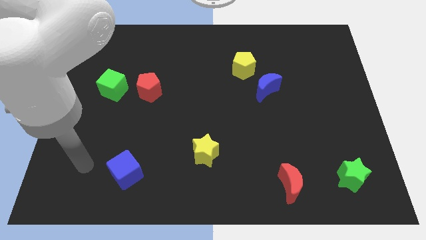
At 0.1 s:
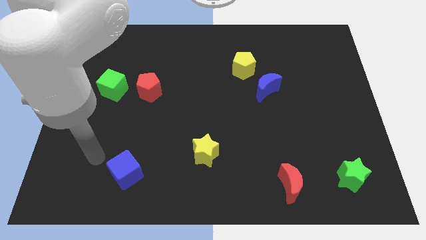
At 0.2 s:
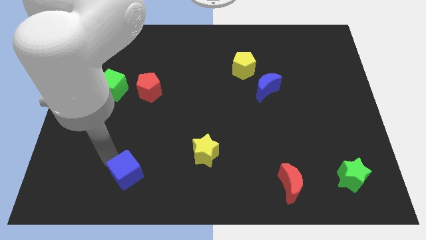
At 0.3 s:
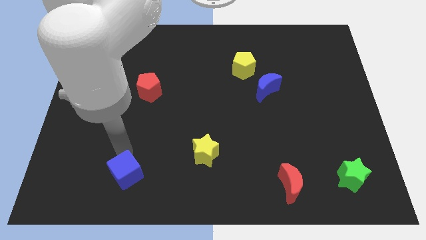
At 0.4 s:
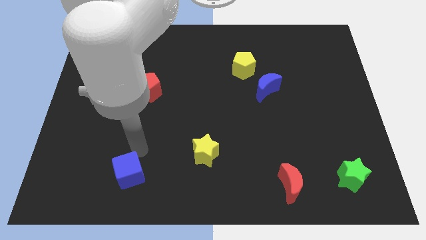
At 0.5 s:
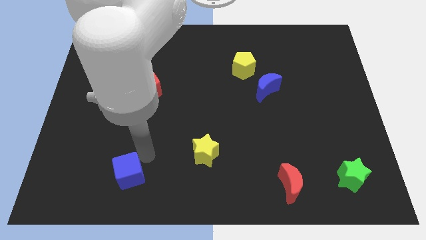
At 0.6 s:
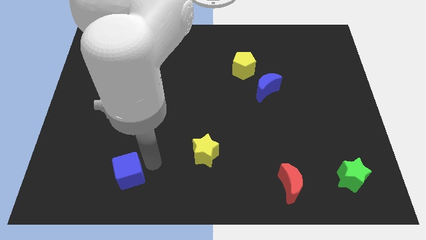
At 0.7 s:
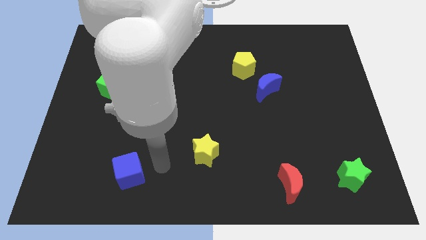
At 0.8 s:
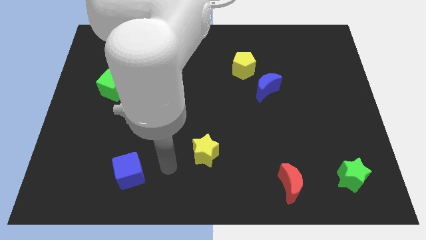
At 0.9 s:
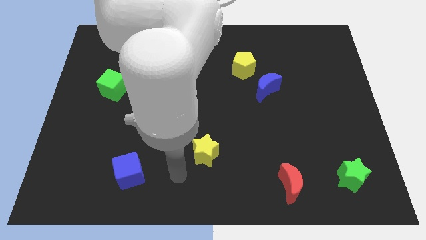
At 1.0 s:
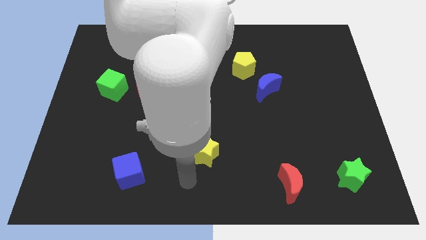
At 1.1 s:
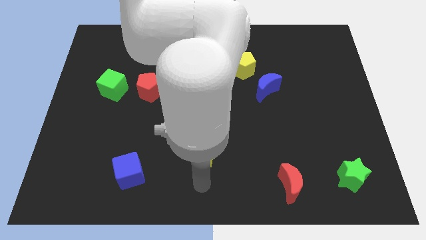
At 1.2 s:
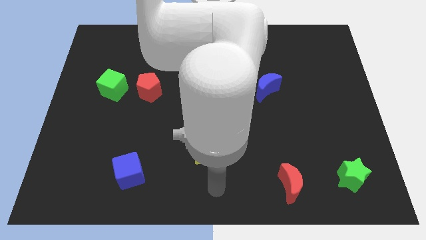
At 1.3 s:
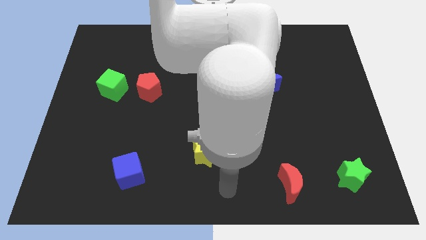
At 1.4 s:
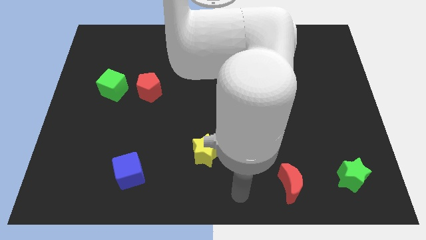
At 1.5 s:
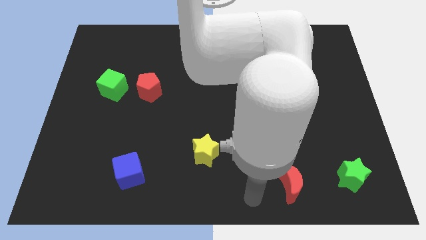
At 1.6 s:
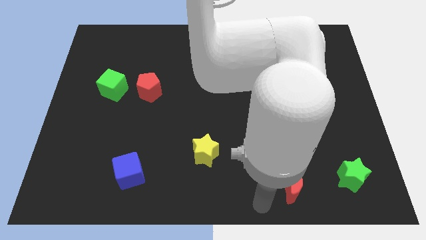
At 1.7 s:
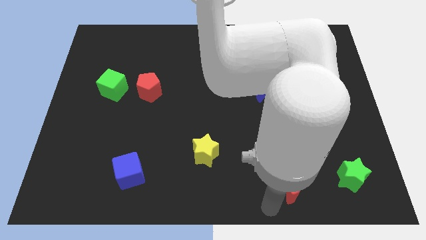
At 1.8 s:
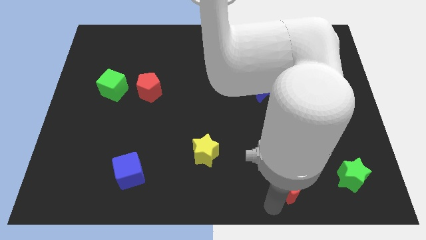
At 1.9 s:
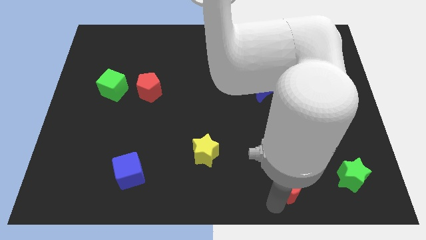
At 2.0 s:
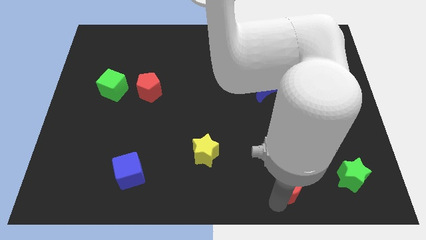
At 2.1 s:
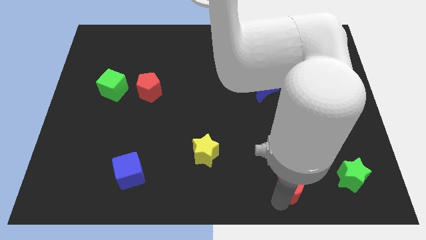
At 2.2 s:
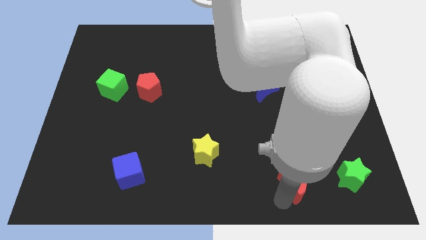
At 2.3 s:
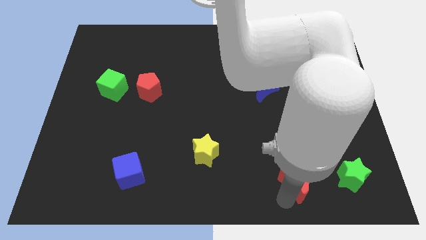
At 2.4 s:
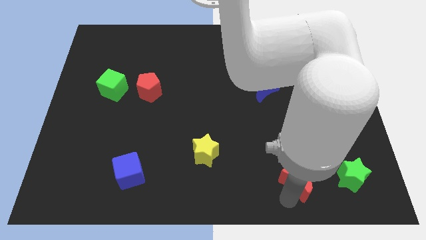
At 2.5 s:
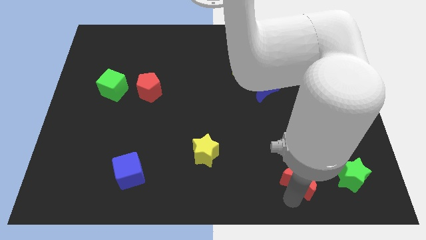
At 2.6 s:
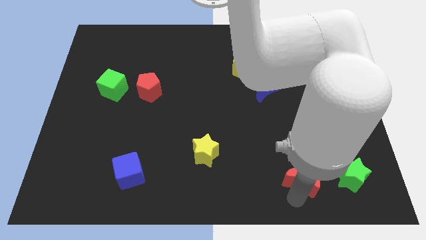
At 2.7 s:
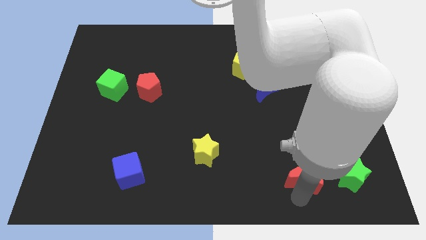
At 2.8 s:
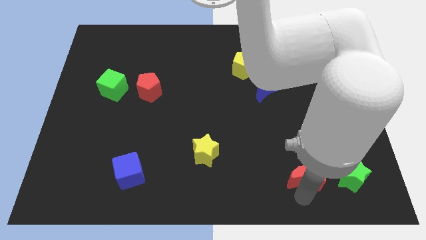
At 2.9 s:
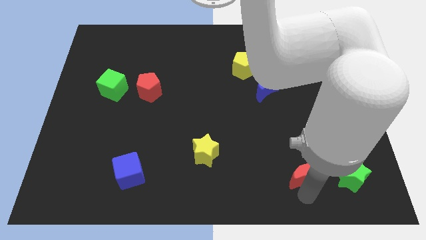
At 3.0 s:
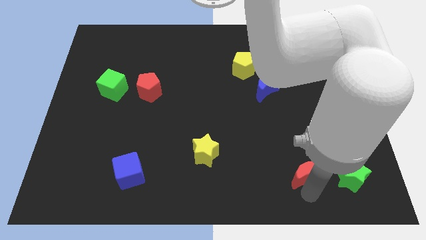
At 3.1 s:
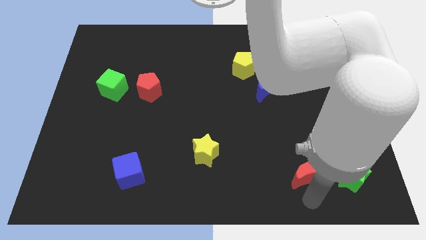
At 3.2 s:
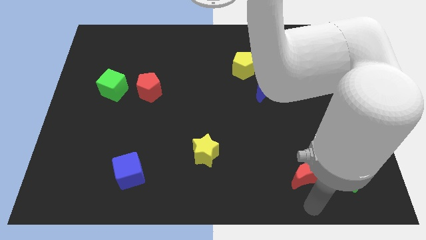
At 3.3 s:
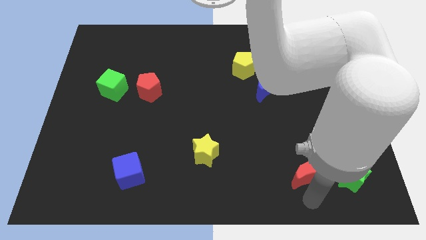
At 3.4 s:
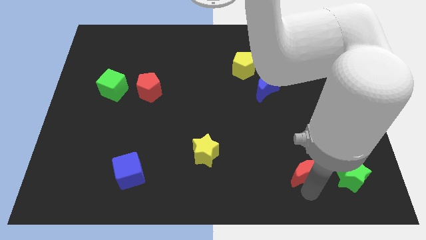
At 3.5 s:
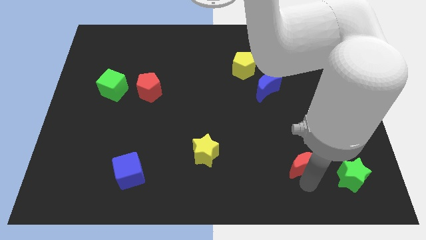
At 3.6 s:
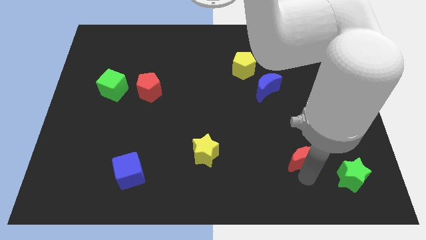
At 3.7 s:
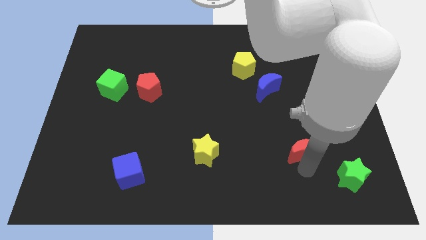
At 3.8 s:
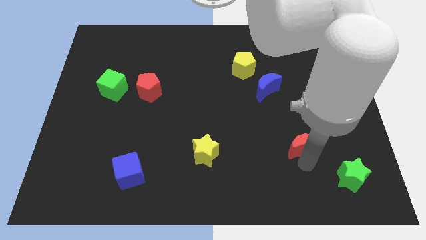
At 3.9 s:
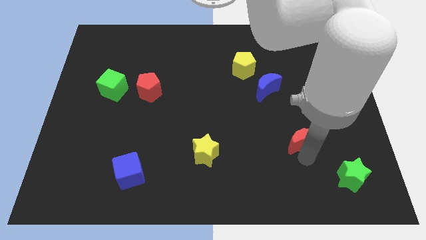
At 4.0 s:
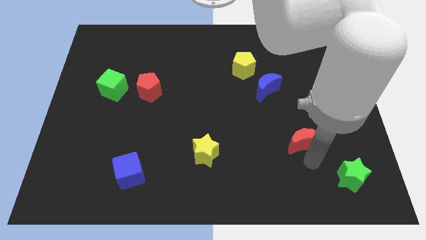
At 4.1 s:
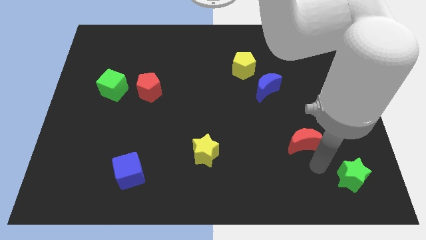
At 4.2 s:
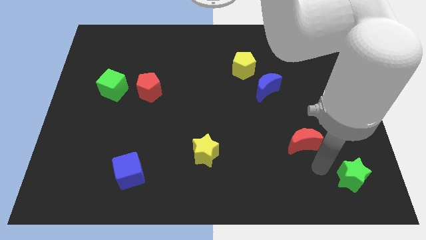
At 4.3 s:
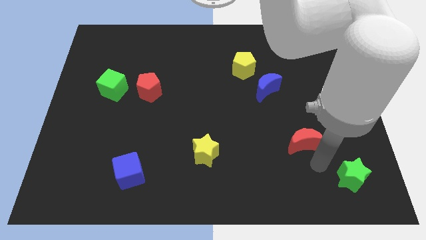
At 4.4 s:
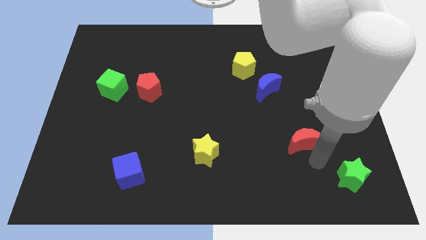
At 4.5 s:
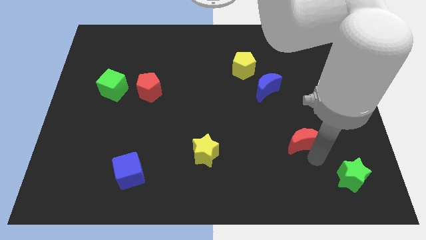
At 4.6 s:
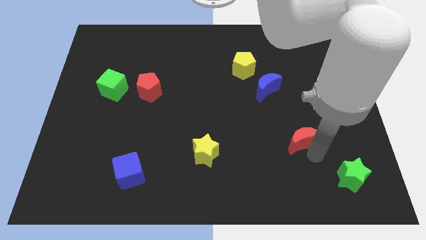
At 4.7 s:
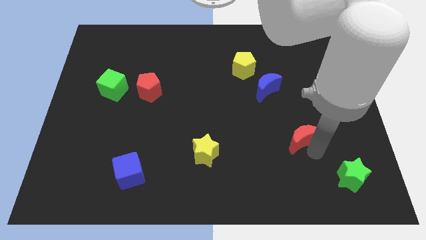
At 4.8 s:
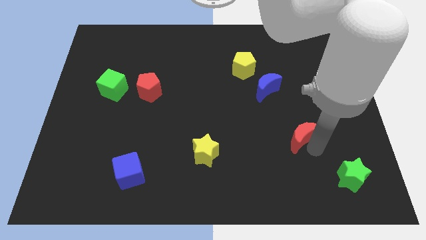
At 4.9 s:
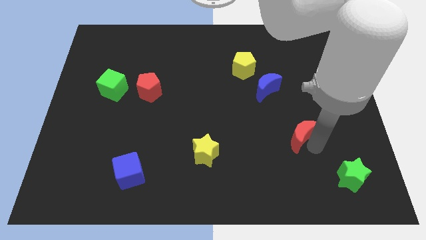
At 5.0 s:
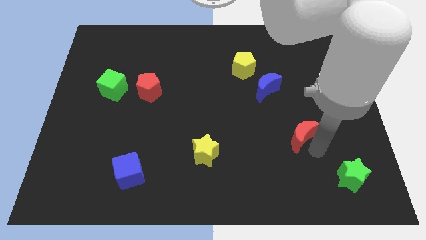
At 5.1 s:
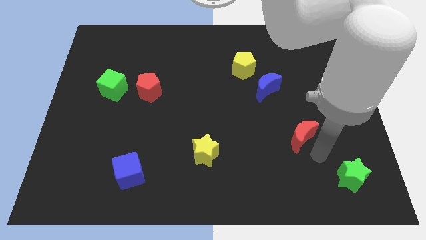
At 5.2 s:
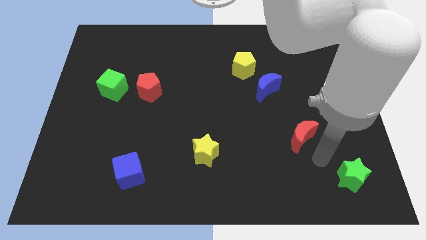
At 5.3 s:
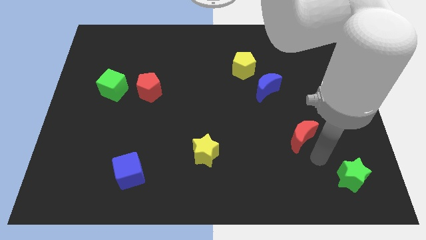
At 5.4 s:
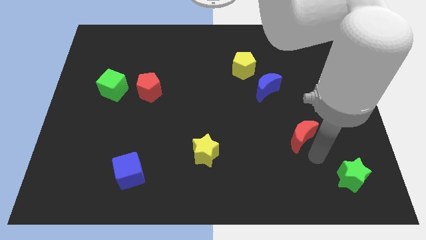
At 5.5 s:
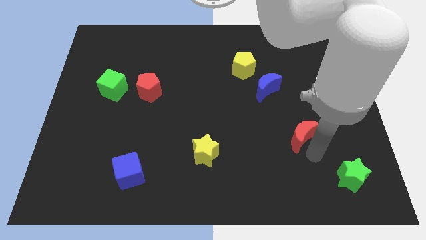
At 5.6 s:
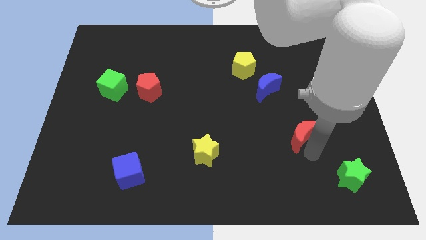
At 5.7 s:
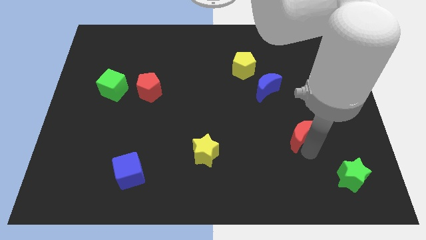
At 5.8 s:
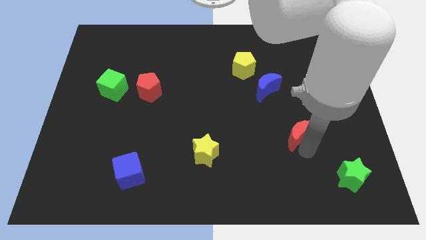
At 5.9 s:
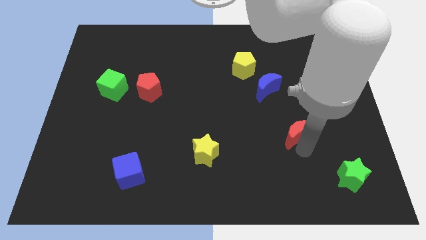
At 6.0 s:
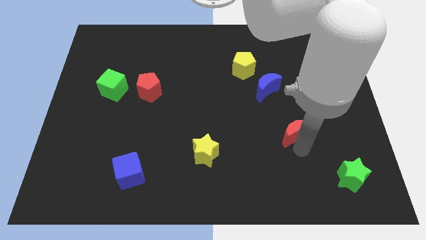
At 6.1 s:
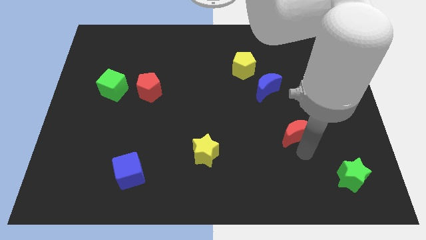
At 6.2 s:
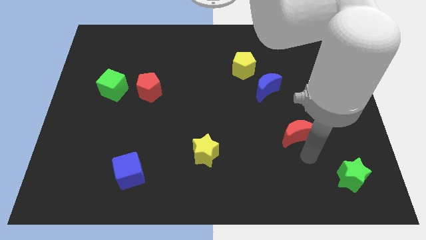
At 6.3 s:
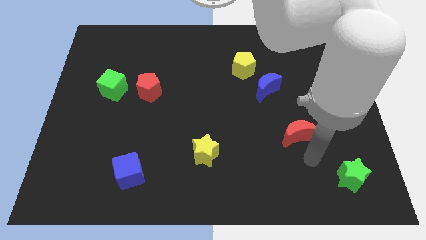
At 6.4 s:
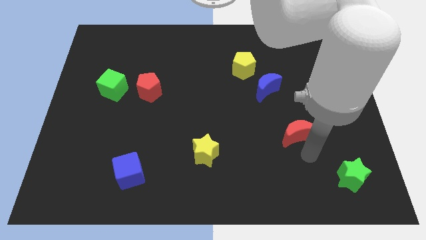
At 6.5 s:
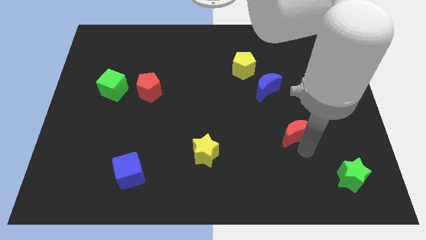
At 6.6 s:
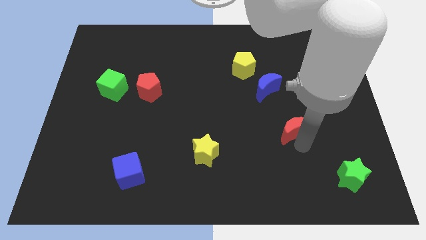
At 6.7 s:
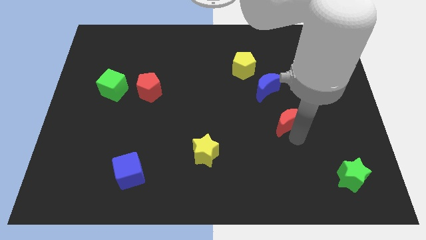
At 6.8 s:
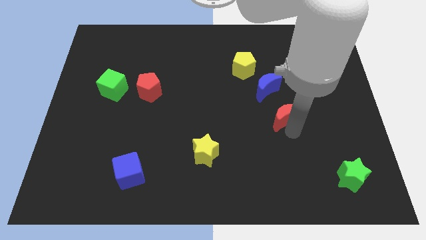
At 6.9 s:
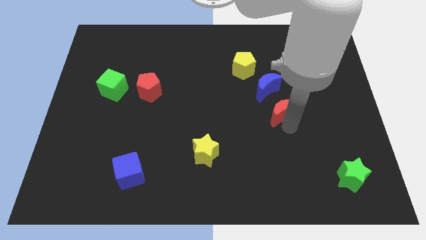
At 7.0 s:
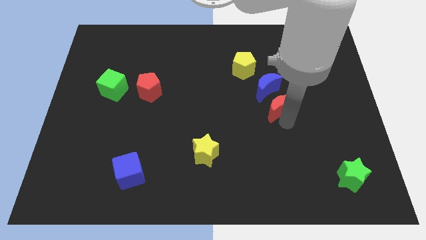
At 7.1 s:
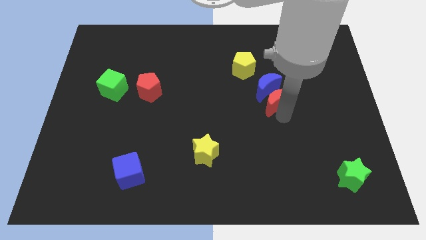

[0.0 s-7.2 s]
slide the red moon to the blue moon
